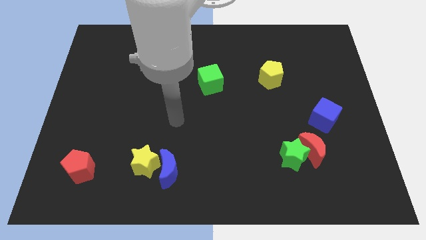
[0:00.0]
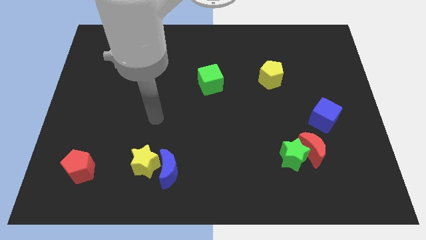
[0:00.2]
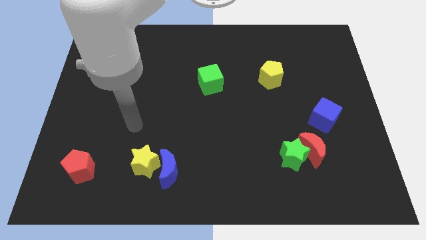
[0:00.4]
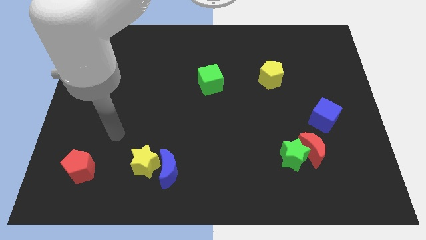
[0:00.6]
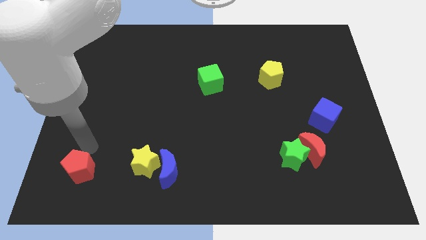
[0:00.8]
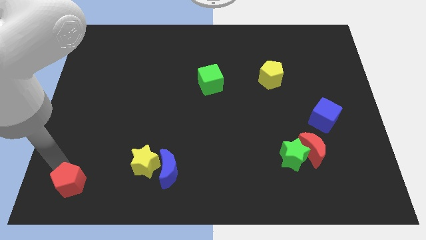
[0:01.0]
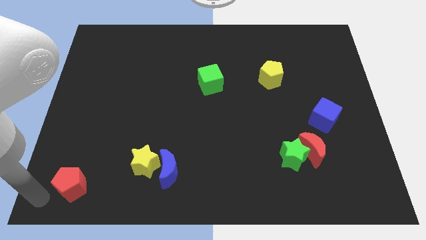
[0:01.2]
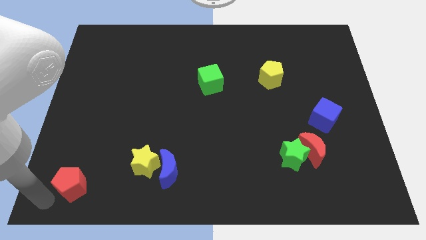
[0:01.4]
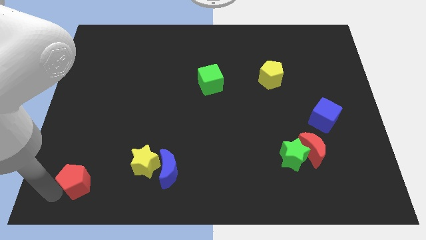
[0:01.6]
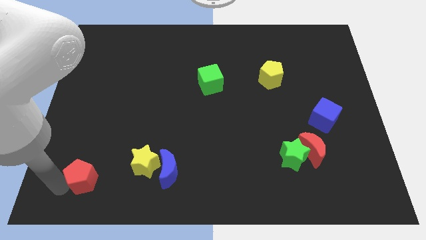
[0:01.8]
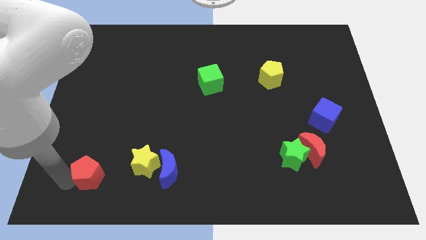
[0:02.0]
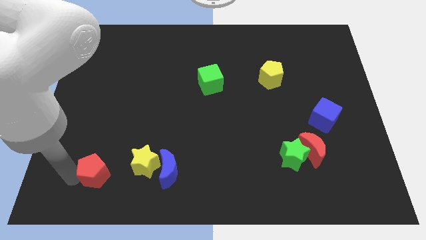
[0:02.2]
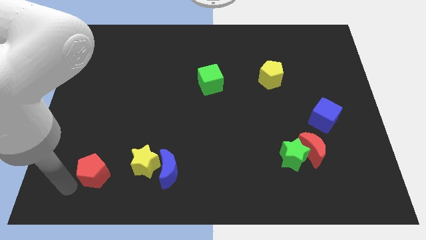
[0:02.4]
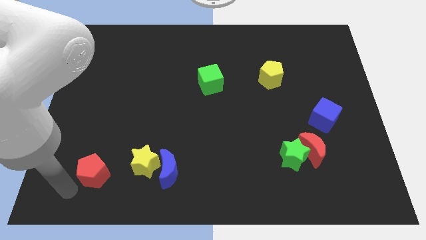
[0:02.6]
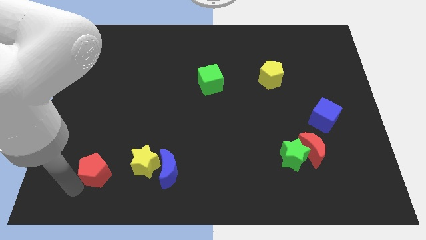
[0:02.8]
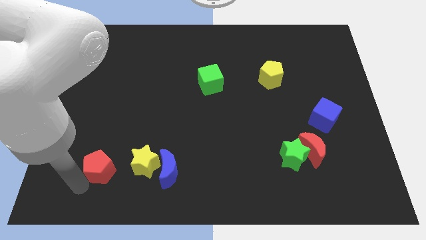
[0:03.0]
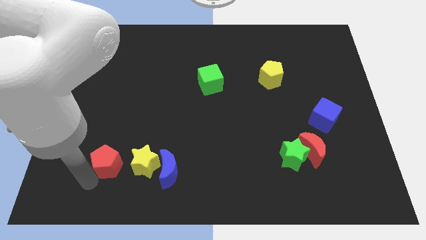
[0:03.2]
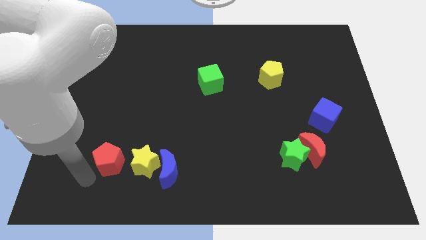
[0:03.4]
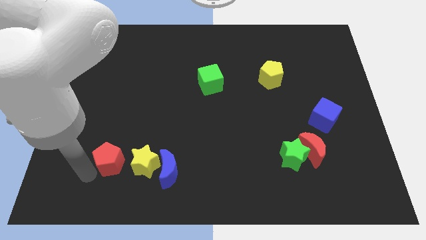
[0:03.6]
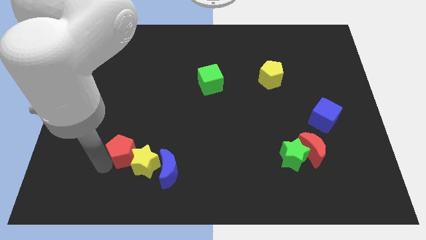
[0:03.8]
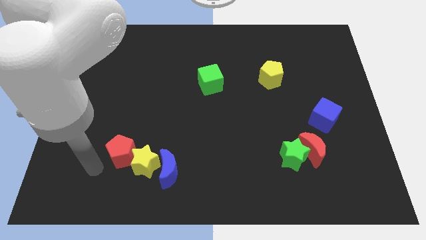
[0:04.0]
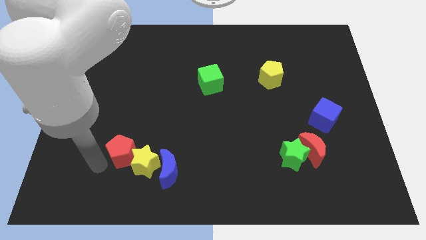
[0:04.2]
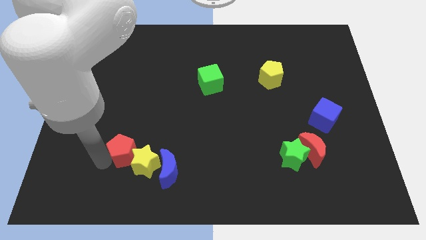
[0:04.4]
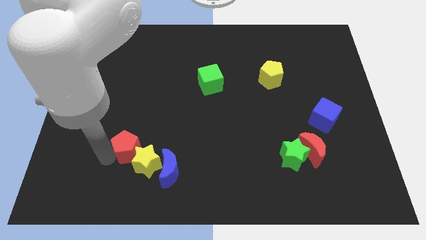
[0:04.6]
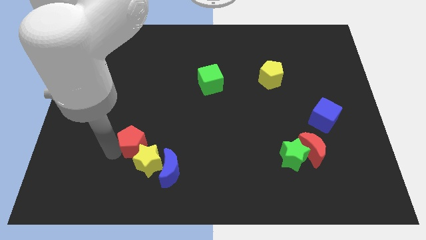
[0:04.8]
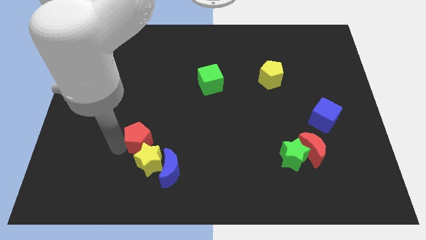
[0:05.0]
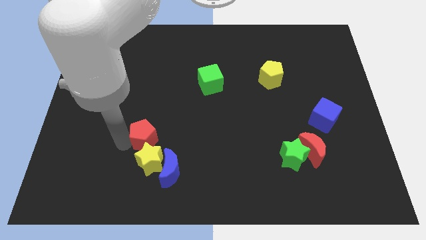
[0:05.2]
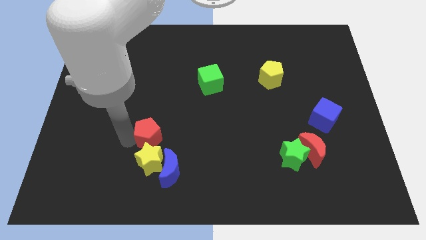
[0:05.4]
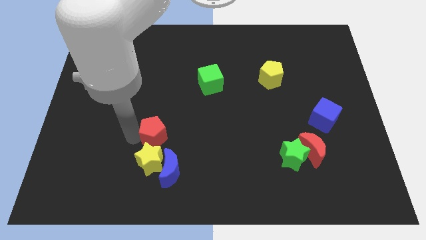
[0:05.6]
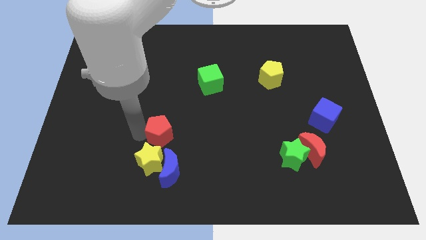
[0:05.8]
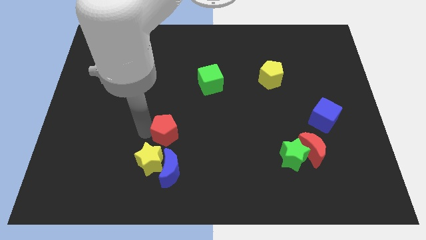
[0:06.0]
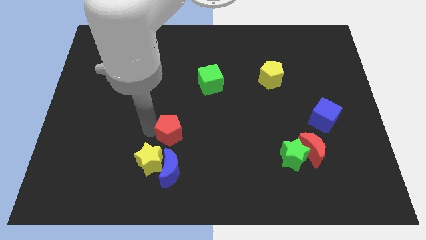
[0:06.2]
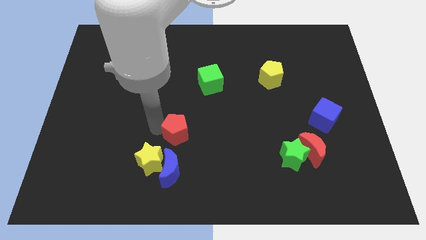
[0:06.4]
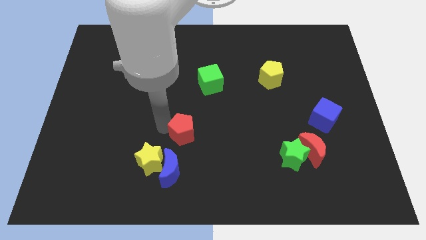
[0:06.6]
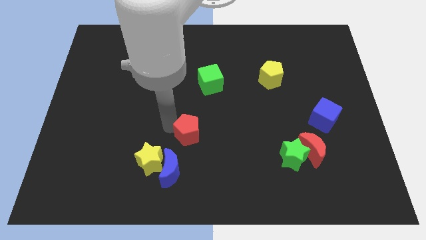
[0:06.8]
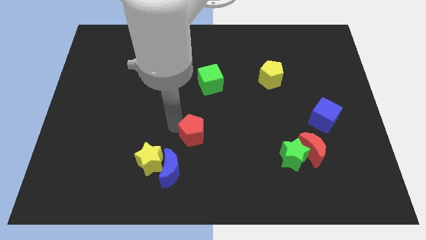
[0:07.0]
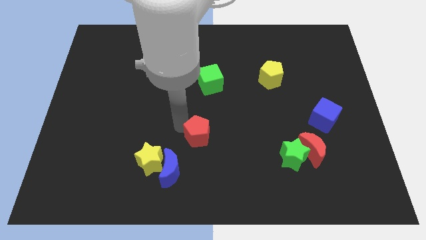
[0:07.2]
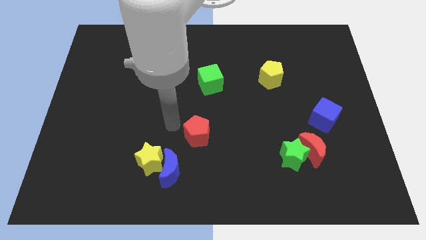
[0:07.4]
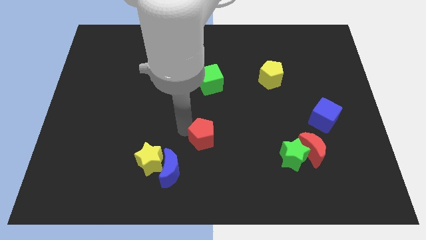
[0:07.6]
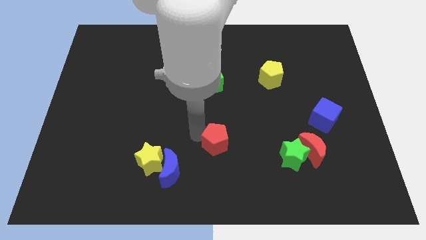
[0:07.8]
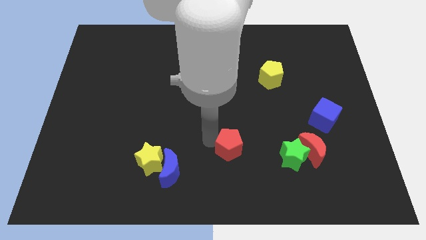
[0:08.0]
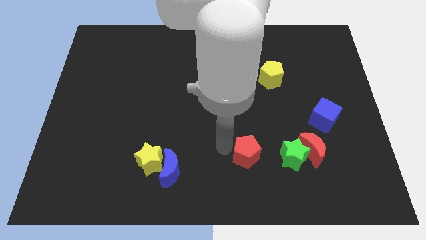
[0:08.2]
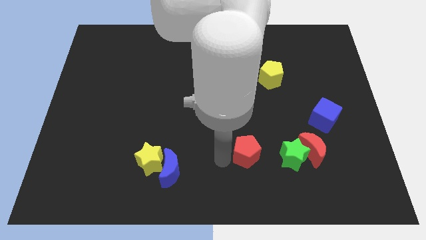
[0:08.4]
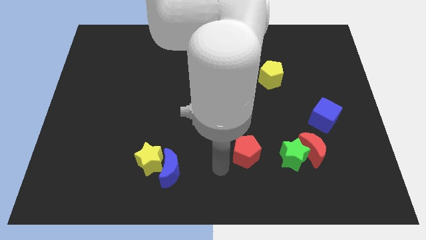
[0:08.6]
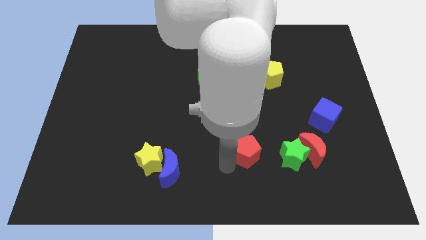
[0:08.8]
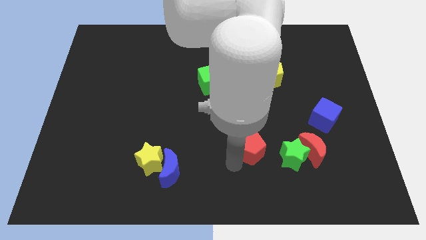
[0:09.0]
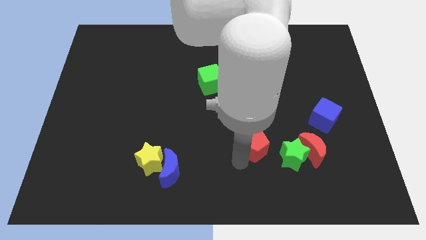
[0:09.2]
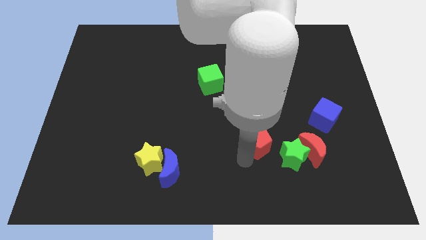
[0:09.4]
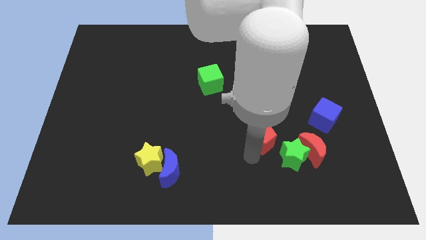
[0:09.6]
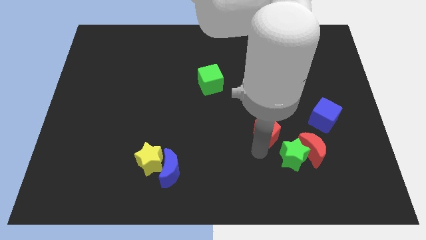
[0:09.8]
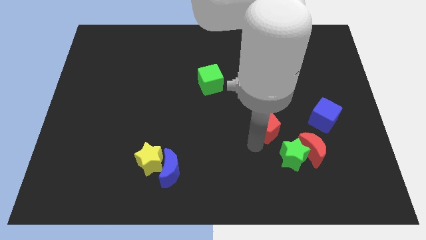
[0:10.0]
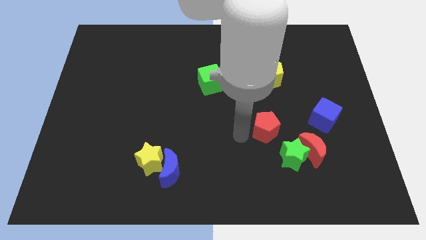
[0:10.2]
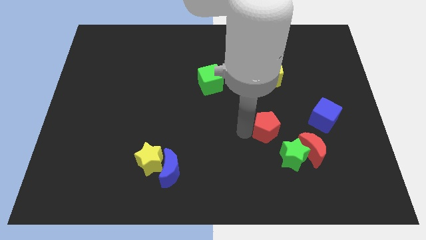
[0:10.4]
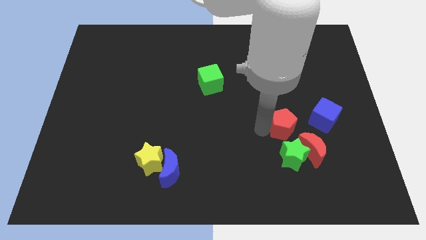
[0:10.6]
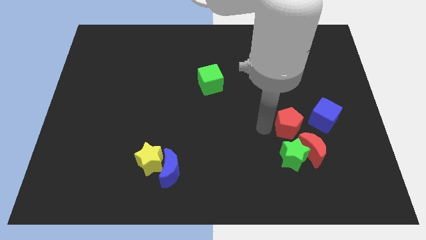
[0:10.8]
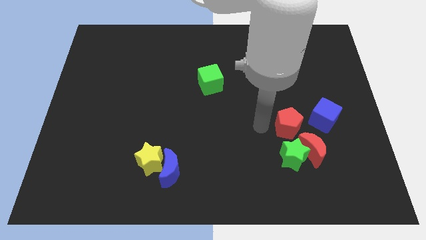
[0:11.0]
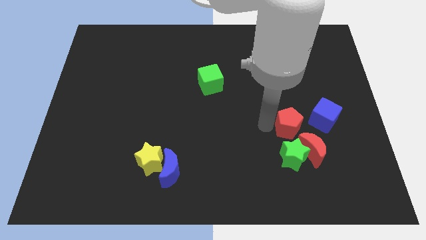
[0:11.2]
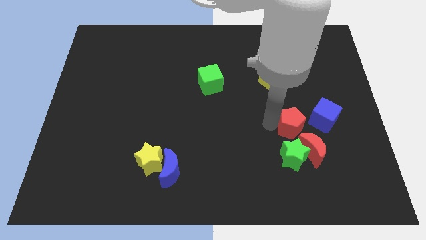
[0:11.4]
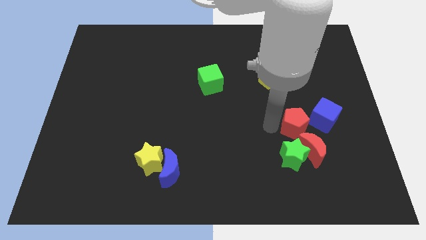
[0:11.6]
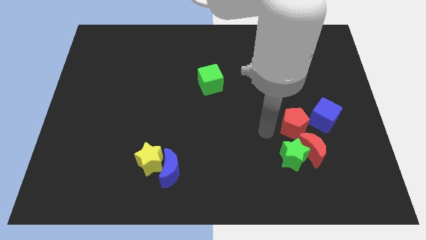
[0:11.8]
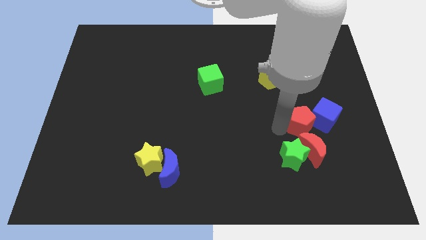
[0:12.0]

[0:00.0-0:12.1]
put the red pentagon towards the blue cube

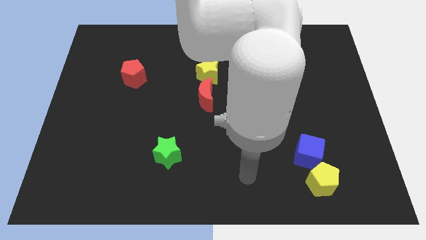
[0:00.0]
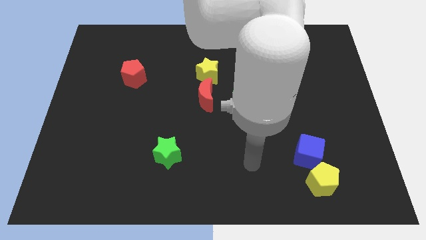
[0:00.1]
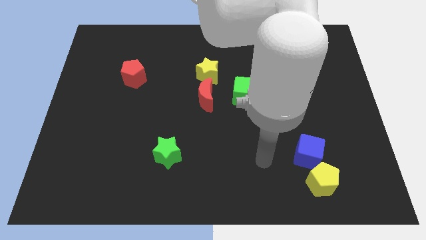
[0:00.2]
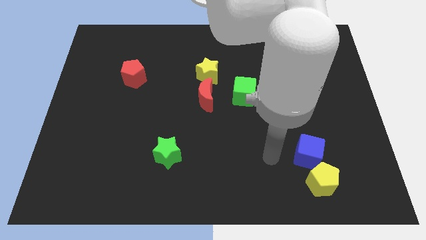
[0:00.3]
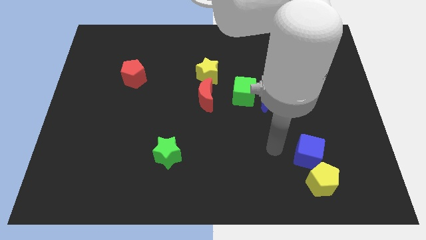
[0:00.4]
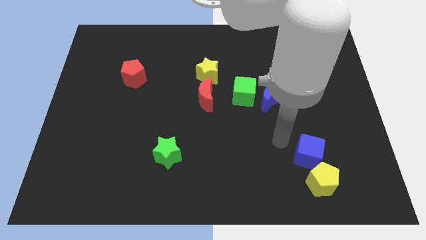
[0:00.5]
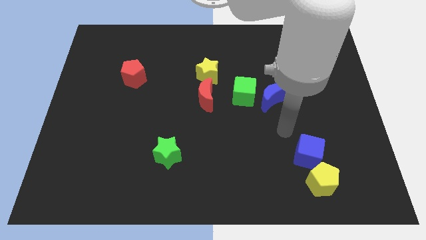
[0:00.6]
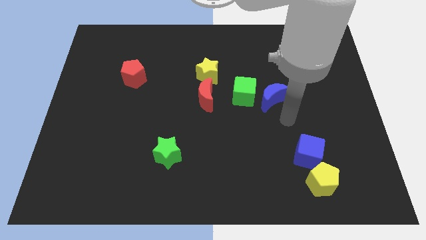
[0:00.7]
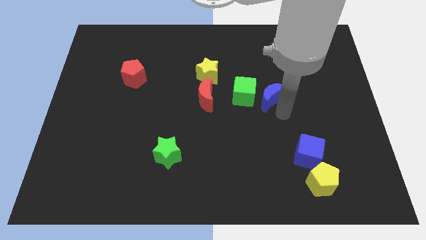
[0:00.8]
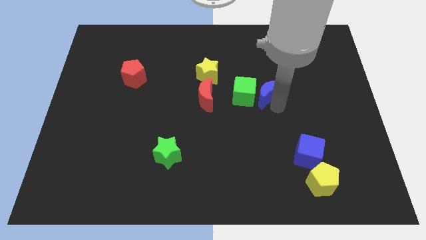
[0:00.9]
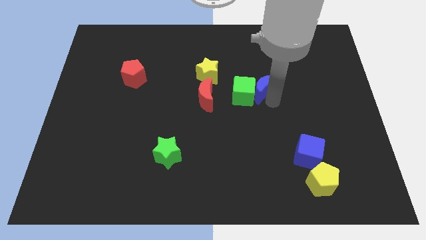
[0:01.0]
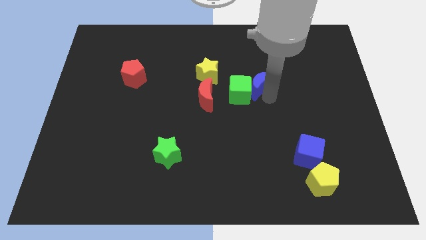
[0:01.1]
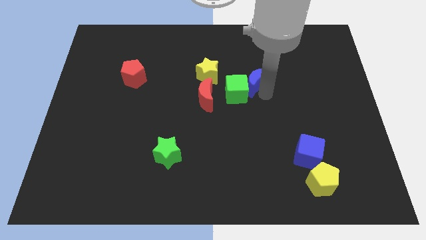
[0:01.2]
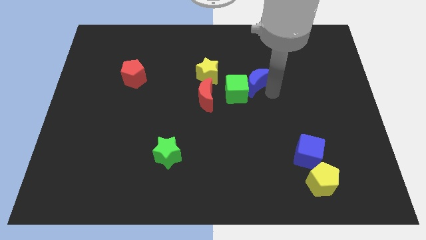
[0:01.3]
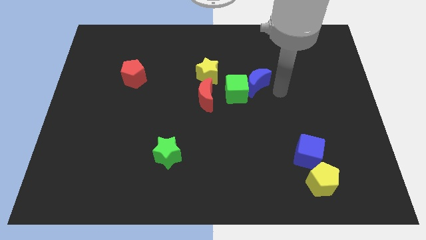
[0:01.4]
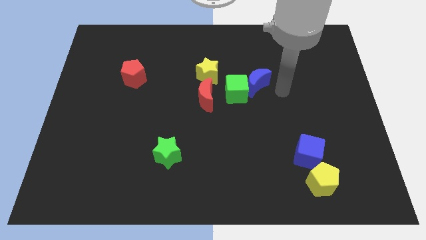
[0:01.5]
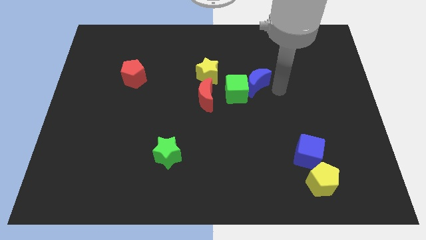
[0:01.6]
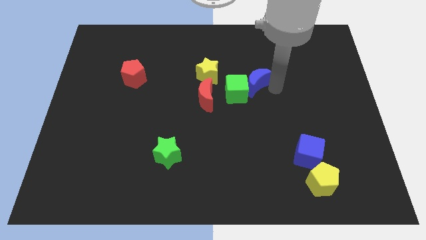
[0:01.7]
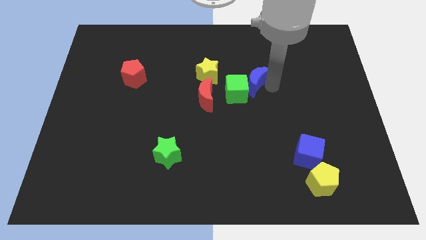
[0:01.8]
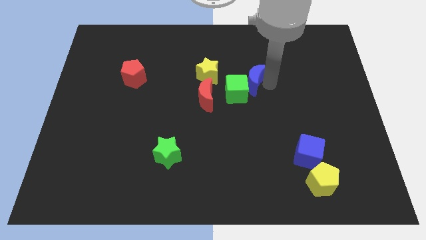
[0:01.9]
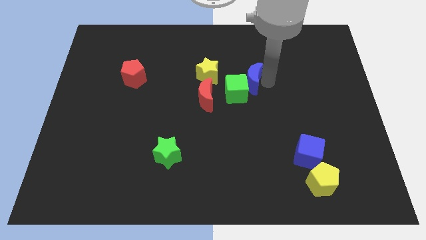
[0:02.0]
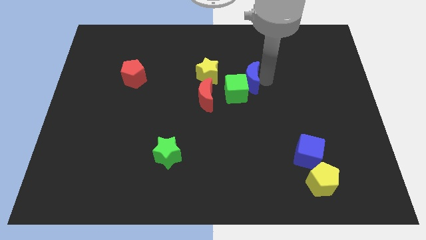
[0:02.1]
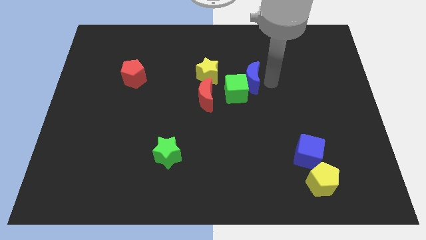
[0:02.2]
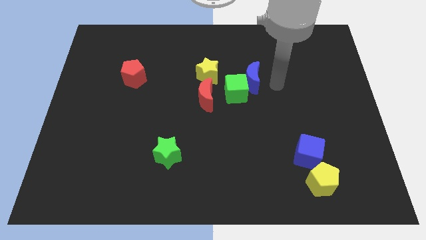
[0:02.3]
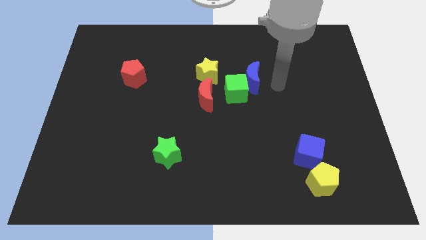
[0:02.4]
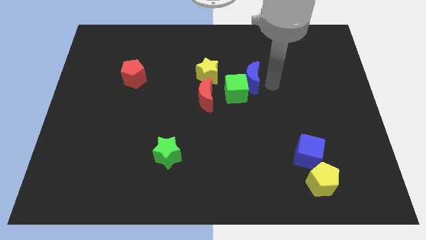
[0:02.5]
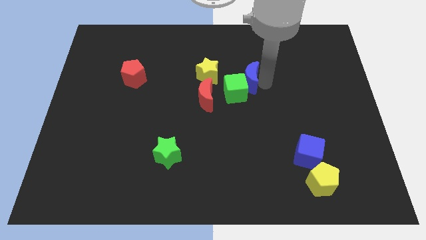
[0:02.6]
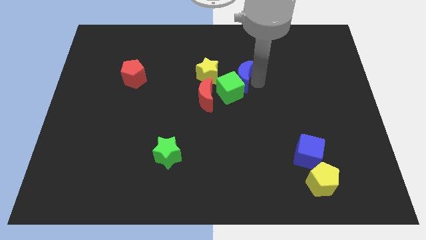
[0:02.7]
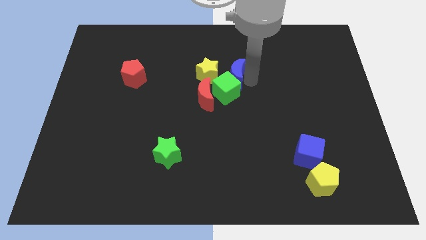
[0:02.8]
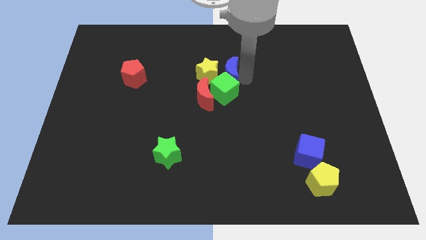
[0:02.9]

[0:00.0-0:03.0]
put the blue moon next to the yellow star
